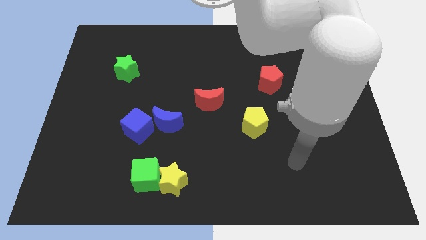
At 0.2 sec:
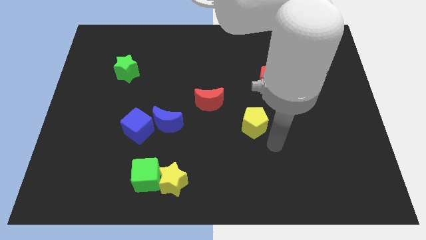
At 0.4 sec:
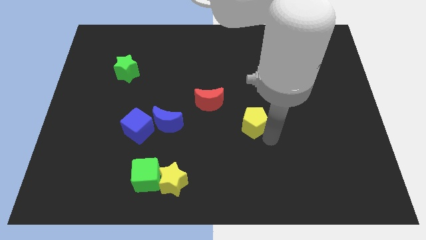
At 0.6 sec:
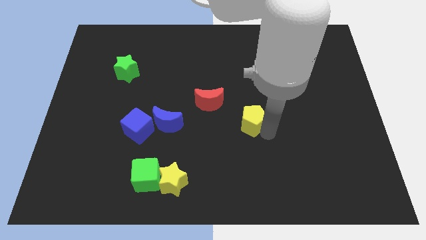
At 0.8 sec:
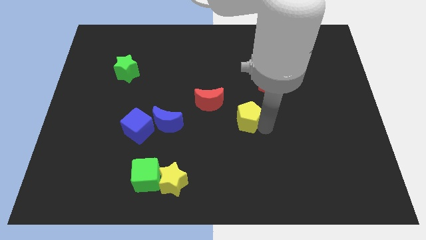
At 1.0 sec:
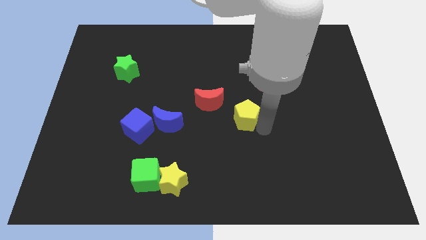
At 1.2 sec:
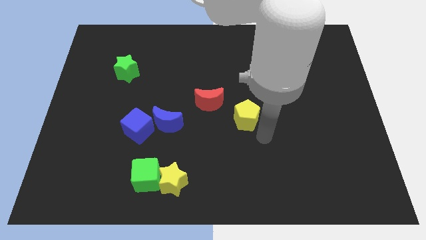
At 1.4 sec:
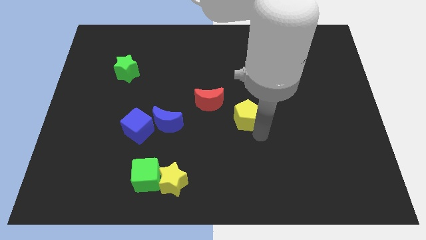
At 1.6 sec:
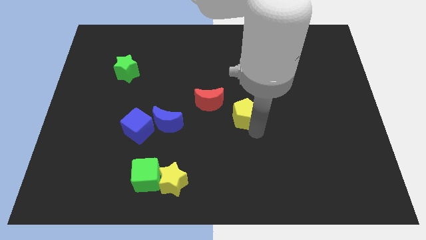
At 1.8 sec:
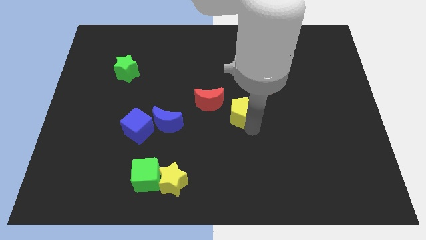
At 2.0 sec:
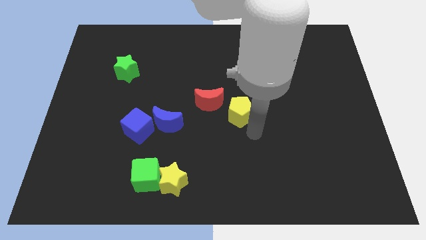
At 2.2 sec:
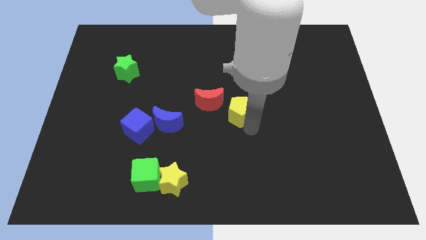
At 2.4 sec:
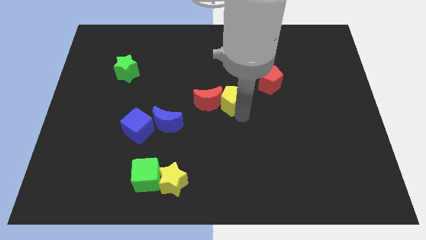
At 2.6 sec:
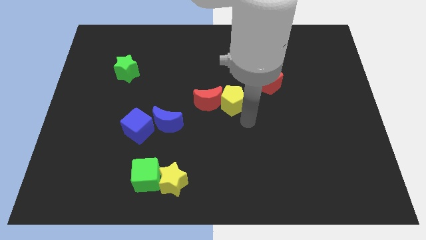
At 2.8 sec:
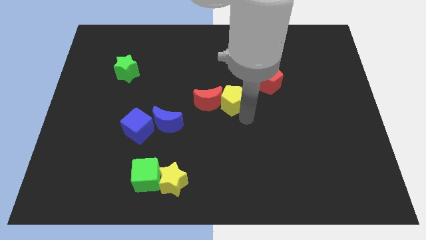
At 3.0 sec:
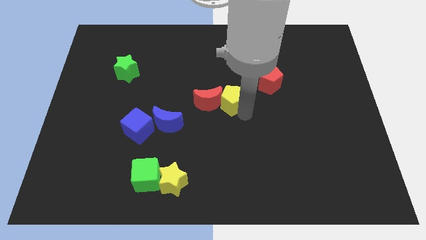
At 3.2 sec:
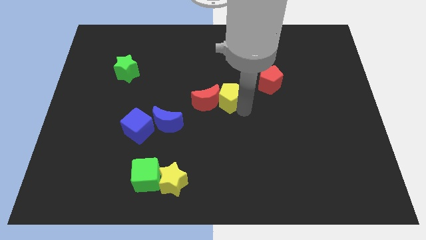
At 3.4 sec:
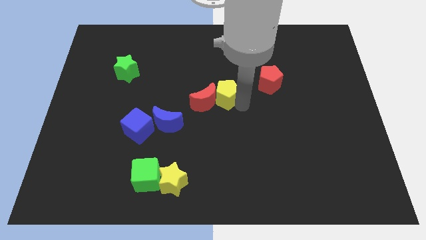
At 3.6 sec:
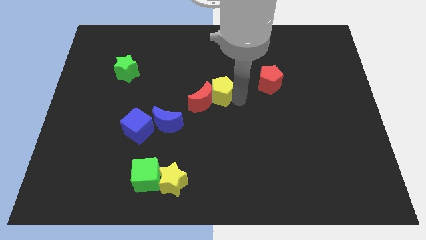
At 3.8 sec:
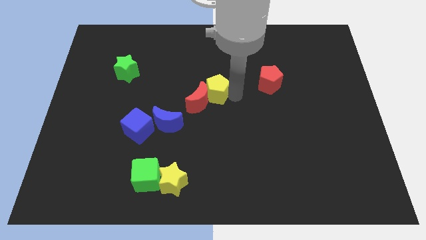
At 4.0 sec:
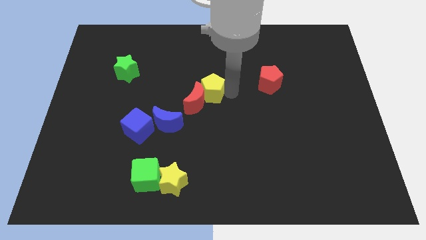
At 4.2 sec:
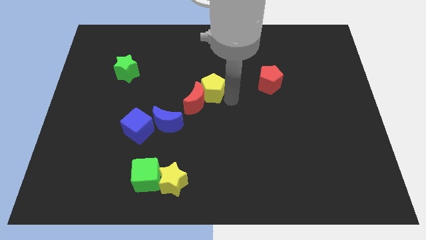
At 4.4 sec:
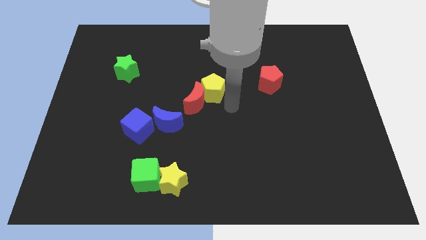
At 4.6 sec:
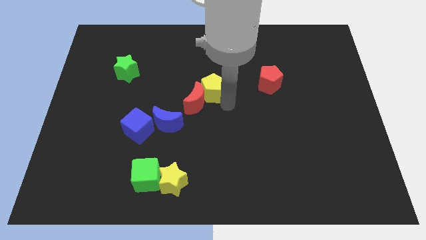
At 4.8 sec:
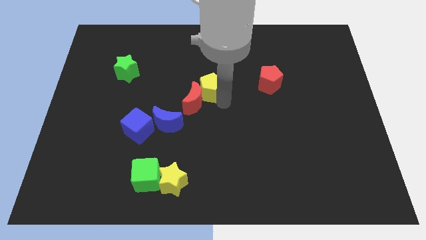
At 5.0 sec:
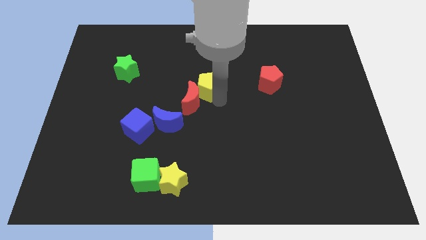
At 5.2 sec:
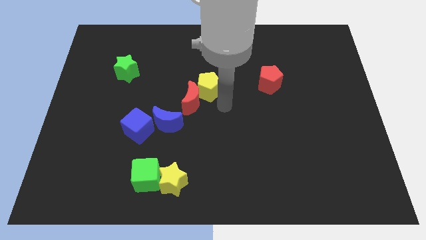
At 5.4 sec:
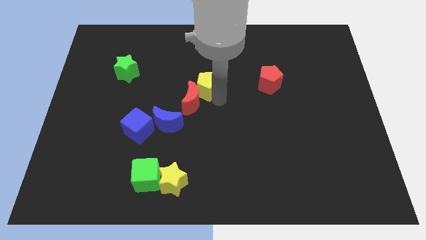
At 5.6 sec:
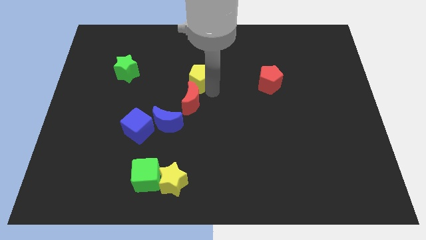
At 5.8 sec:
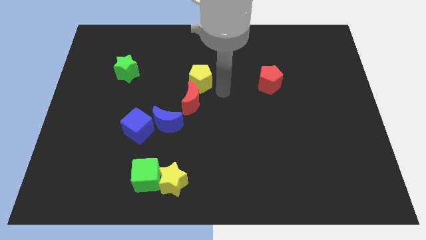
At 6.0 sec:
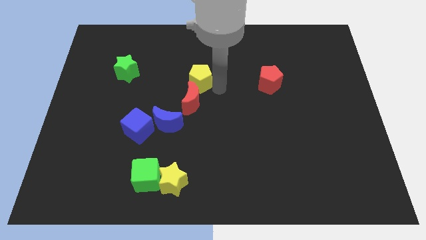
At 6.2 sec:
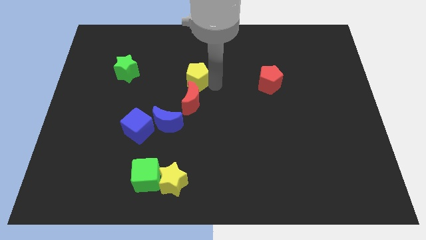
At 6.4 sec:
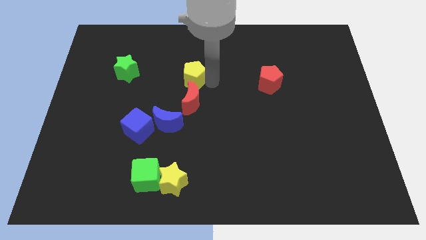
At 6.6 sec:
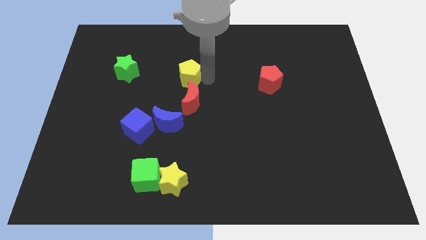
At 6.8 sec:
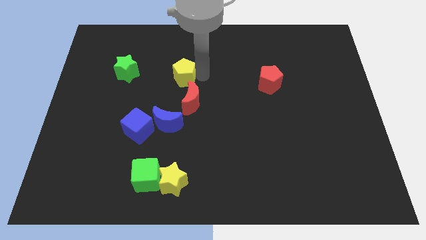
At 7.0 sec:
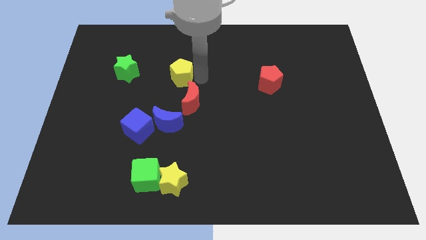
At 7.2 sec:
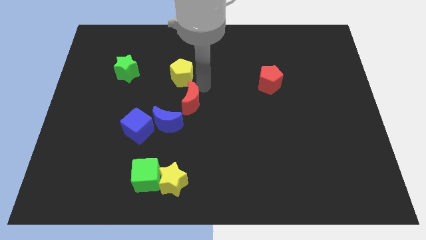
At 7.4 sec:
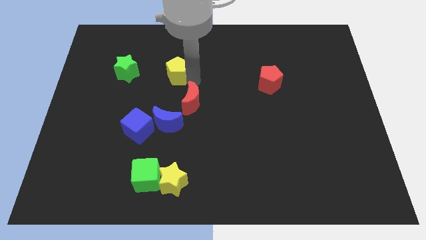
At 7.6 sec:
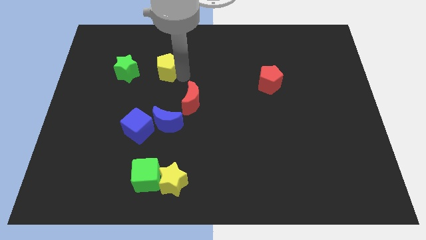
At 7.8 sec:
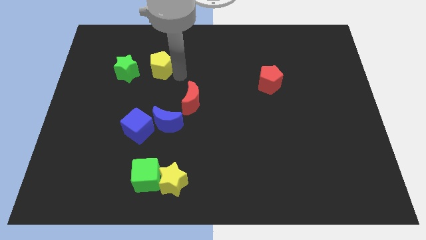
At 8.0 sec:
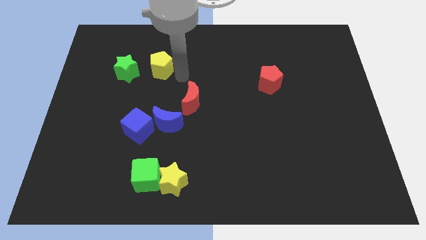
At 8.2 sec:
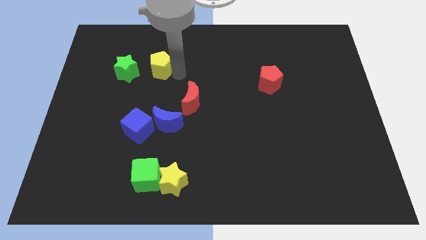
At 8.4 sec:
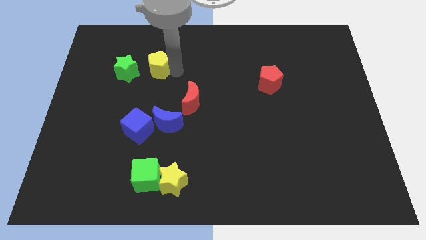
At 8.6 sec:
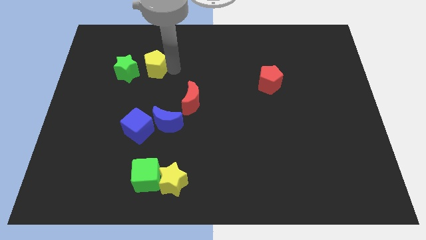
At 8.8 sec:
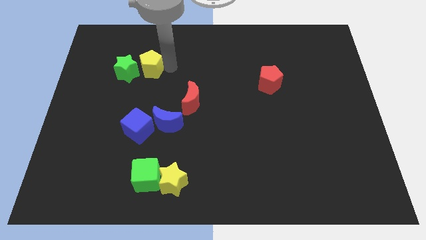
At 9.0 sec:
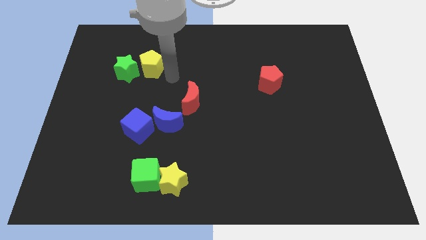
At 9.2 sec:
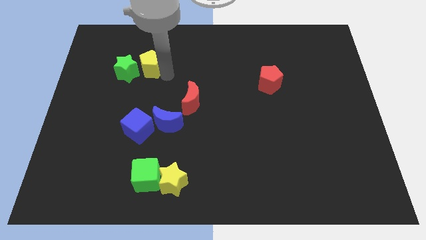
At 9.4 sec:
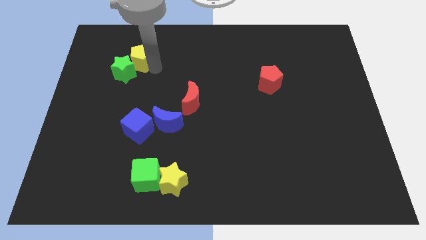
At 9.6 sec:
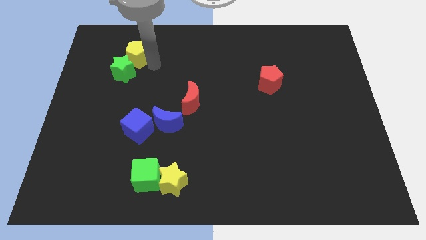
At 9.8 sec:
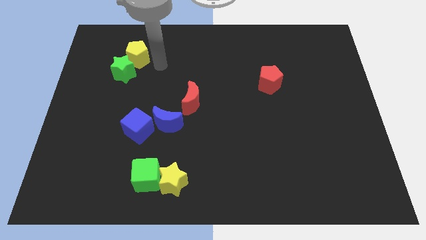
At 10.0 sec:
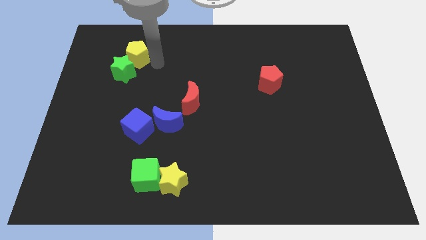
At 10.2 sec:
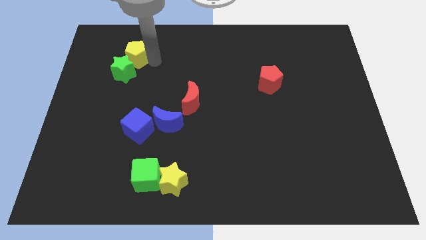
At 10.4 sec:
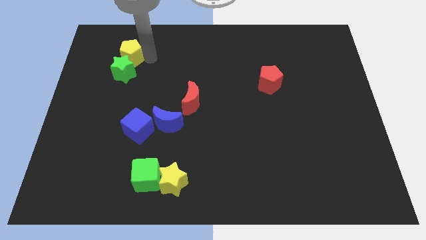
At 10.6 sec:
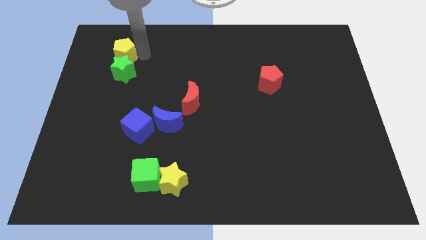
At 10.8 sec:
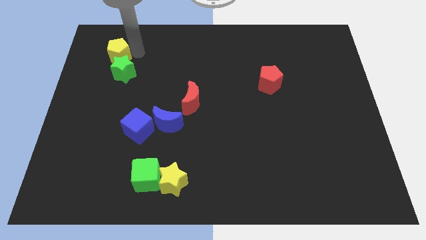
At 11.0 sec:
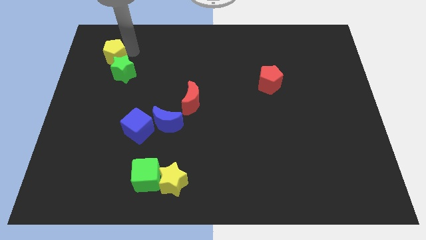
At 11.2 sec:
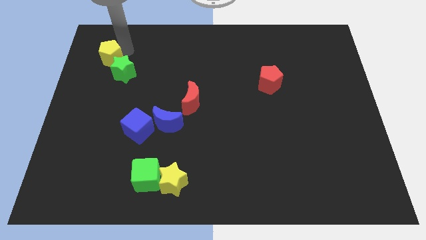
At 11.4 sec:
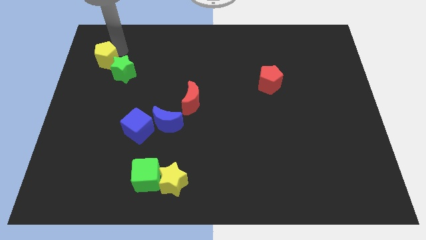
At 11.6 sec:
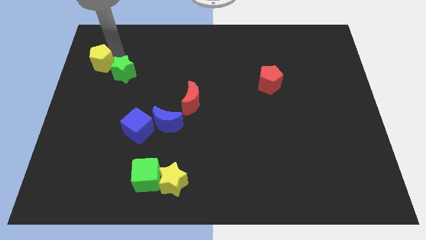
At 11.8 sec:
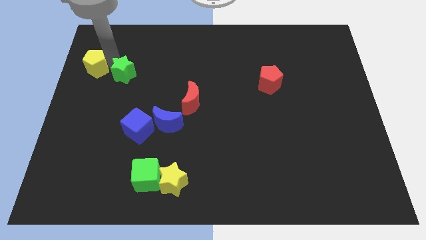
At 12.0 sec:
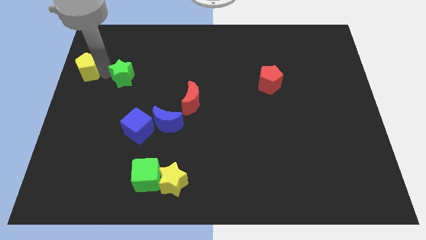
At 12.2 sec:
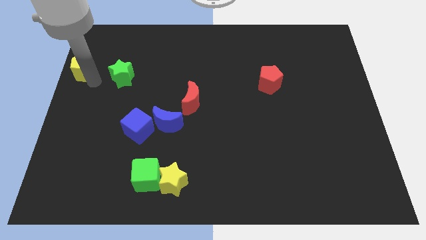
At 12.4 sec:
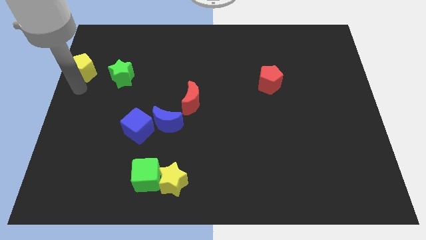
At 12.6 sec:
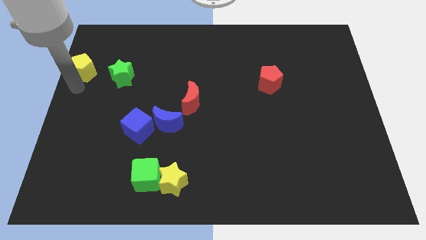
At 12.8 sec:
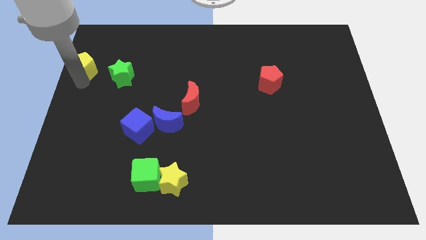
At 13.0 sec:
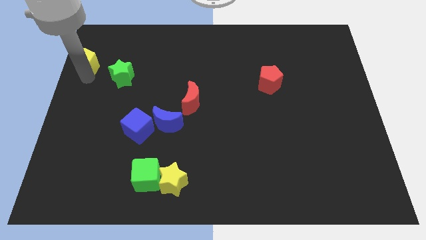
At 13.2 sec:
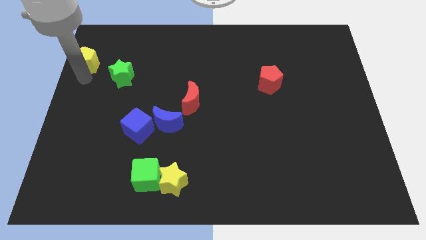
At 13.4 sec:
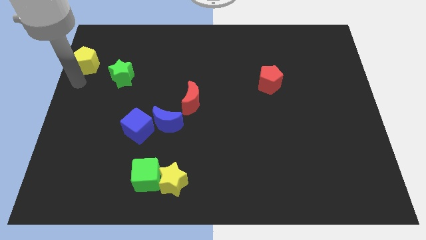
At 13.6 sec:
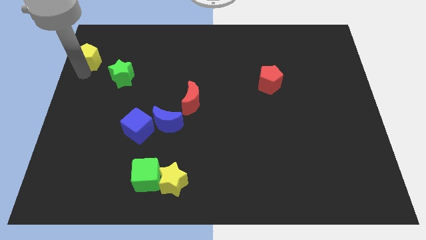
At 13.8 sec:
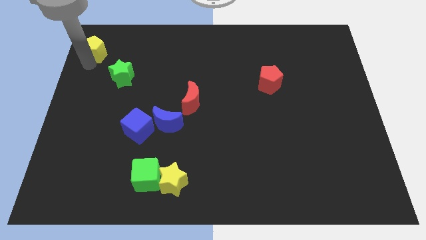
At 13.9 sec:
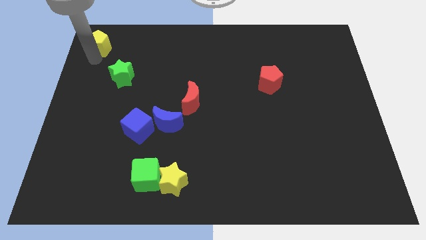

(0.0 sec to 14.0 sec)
slide the yellow pentagon to the top left of the board

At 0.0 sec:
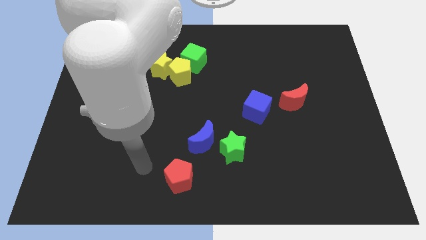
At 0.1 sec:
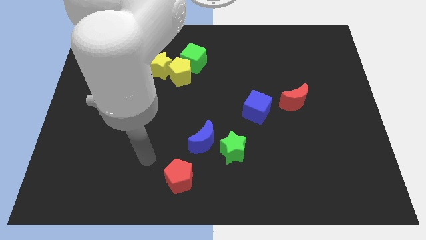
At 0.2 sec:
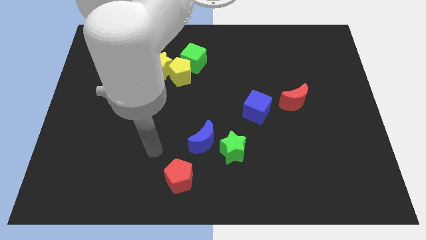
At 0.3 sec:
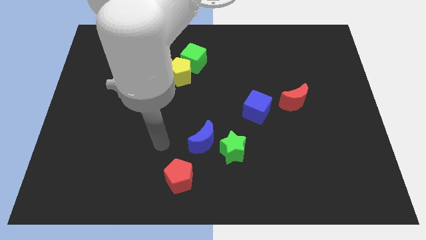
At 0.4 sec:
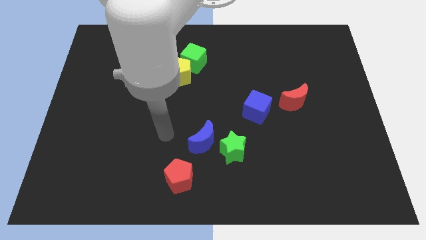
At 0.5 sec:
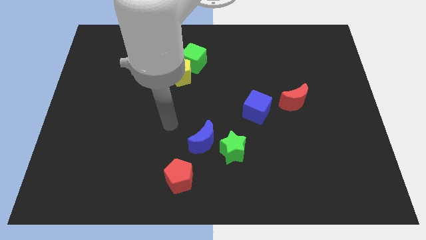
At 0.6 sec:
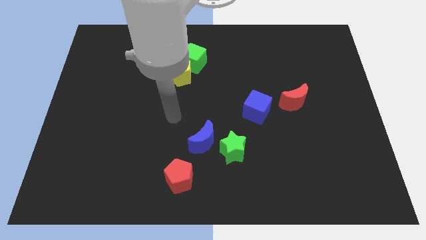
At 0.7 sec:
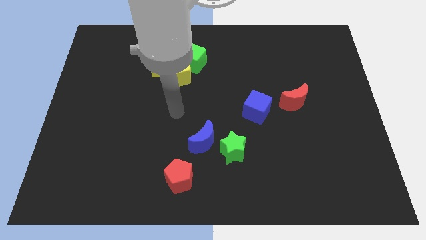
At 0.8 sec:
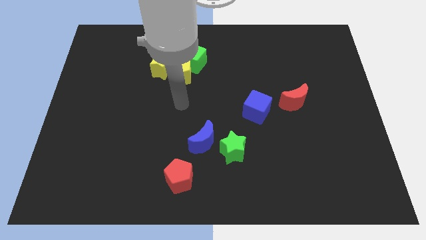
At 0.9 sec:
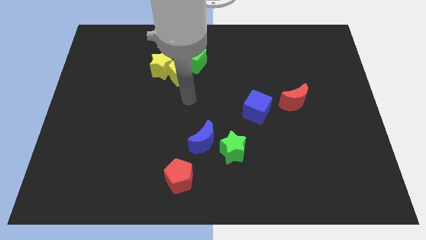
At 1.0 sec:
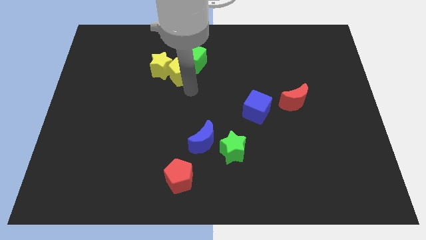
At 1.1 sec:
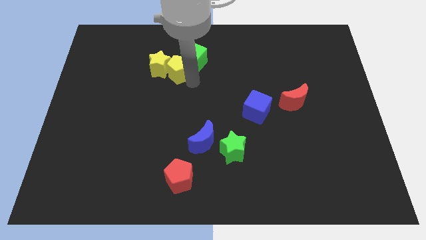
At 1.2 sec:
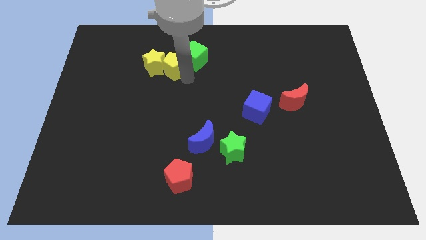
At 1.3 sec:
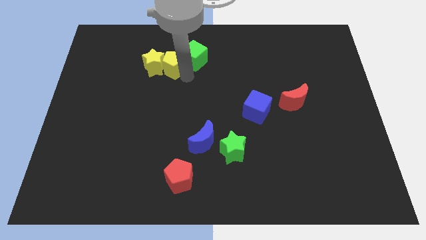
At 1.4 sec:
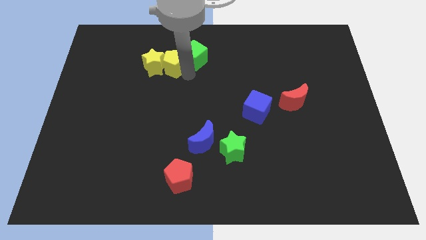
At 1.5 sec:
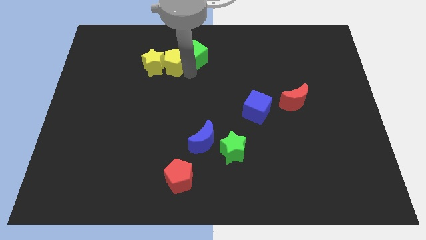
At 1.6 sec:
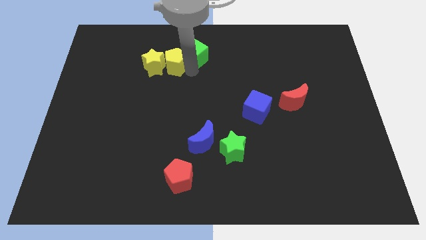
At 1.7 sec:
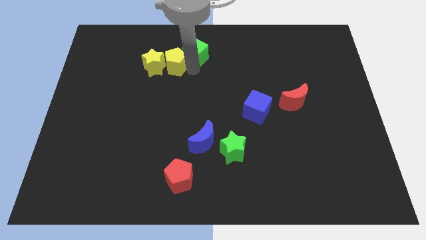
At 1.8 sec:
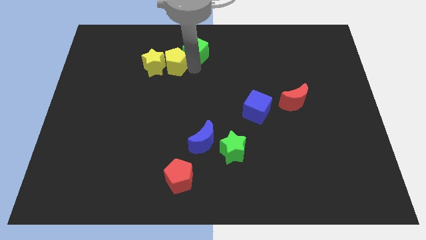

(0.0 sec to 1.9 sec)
move the green cube to the top
